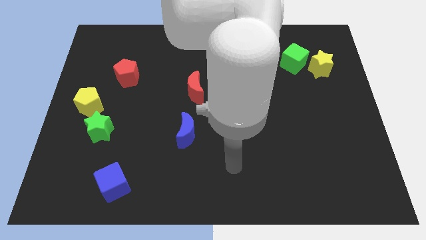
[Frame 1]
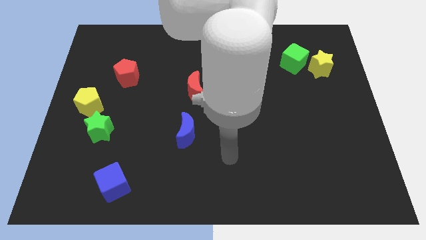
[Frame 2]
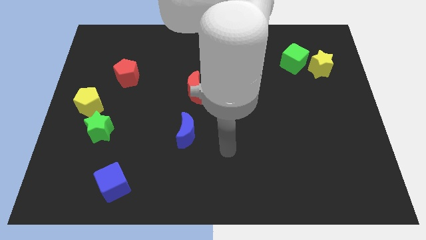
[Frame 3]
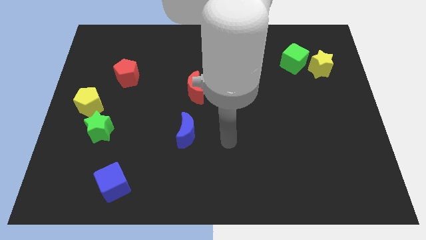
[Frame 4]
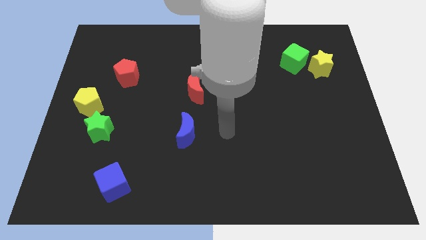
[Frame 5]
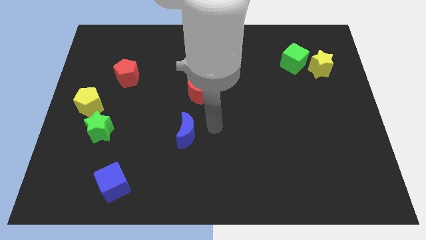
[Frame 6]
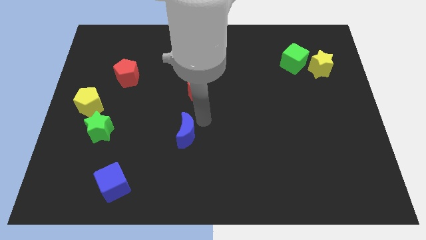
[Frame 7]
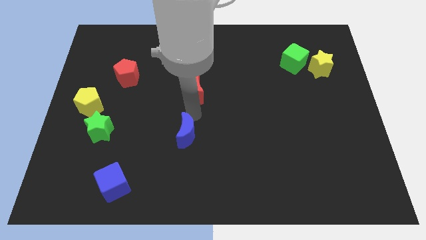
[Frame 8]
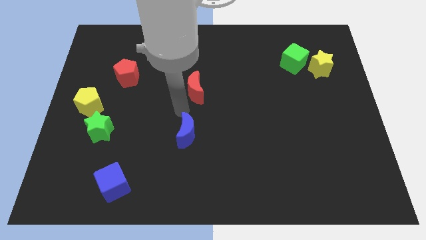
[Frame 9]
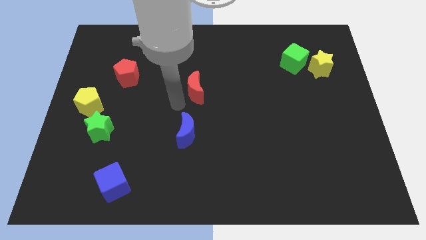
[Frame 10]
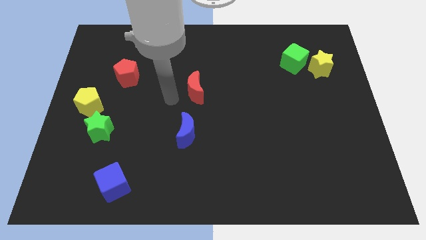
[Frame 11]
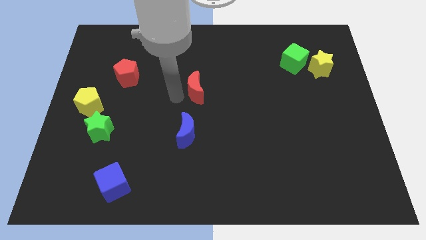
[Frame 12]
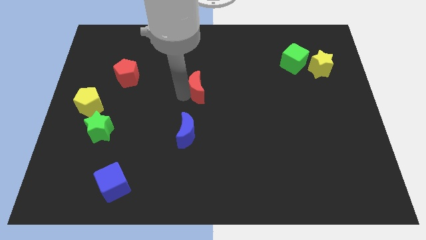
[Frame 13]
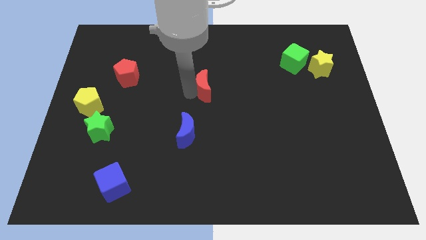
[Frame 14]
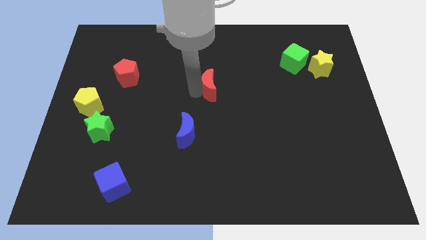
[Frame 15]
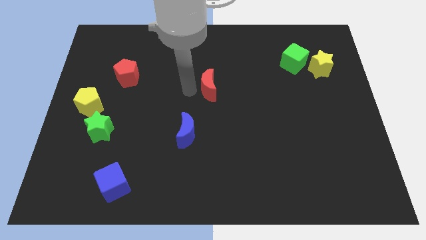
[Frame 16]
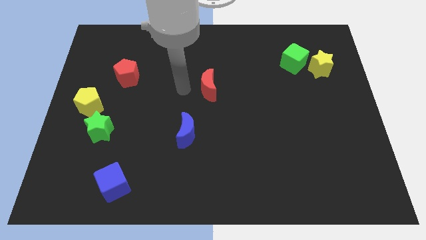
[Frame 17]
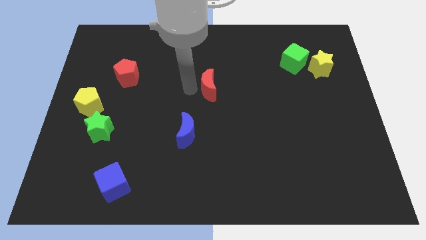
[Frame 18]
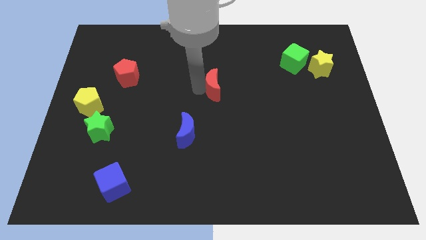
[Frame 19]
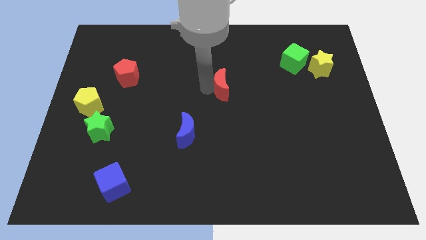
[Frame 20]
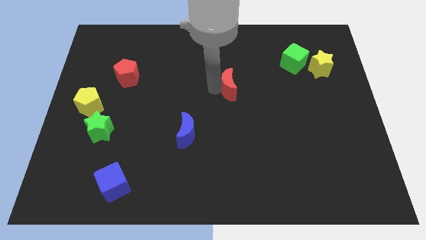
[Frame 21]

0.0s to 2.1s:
slightly push the red moon right

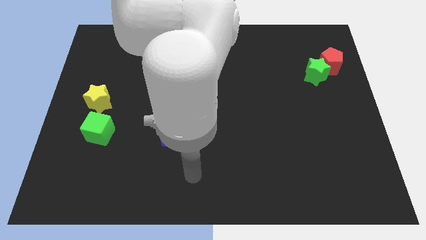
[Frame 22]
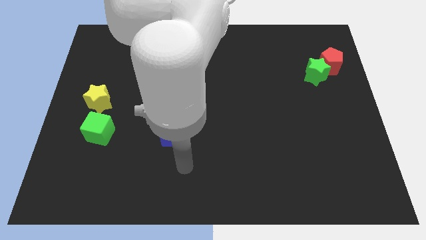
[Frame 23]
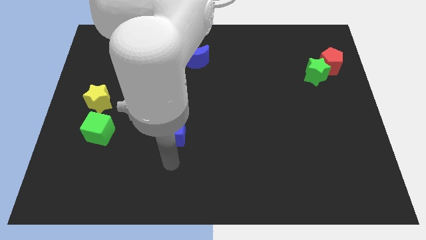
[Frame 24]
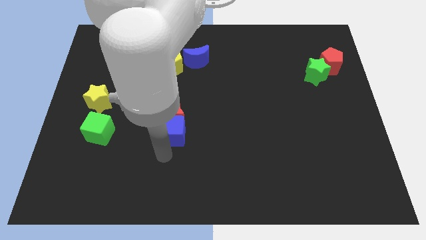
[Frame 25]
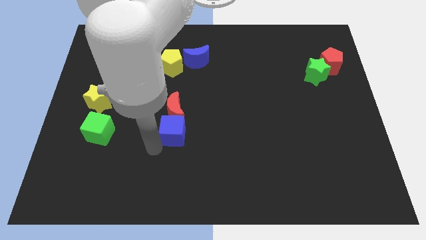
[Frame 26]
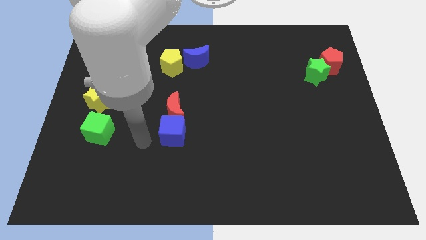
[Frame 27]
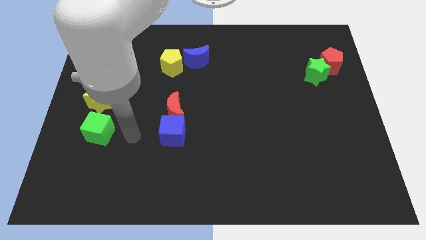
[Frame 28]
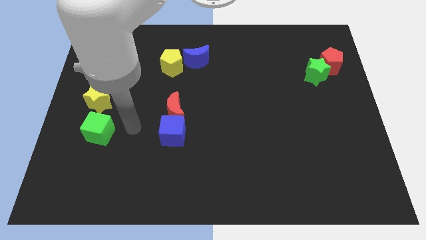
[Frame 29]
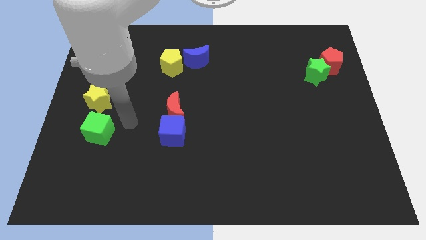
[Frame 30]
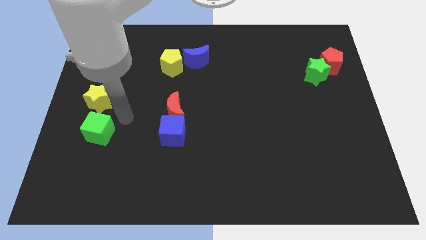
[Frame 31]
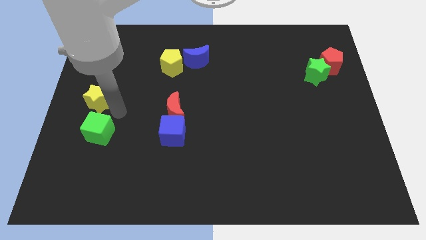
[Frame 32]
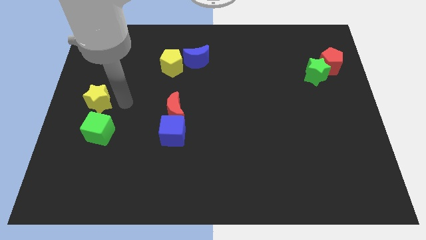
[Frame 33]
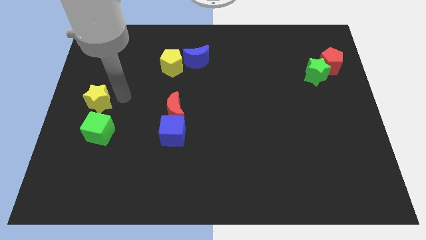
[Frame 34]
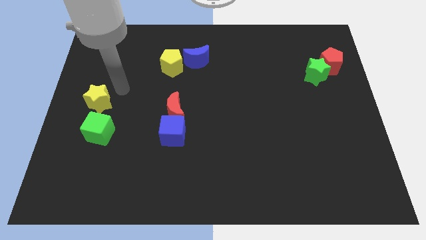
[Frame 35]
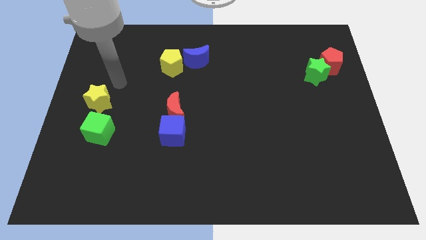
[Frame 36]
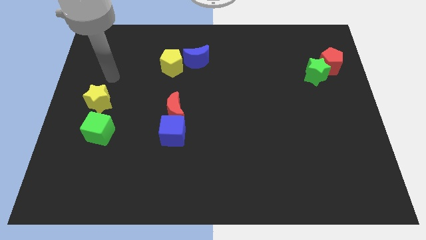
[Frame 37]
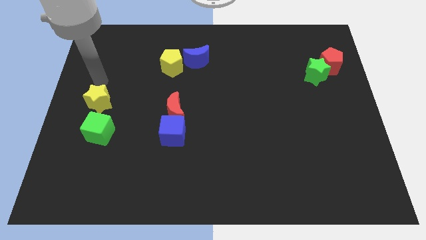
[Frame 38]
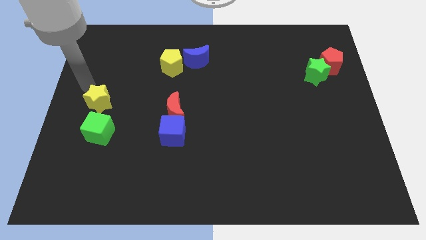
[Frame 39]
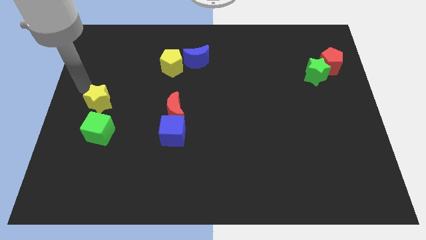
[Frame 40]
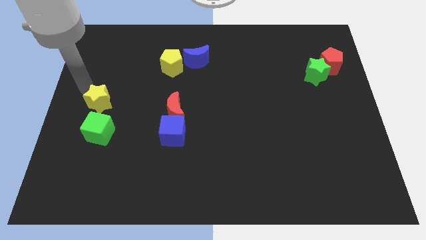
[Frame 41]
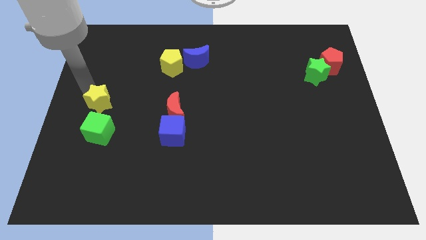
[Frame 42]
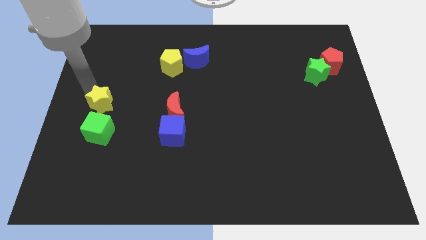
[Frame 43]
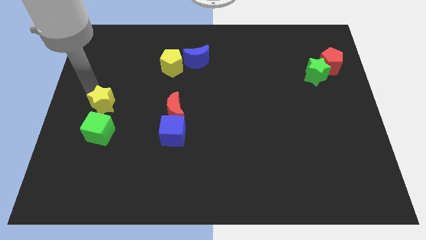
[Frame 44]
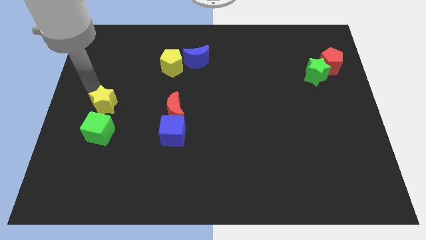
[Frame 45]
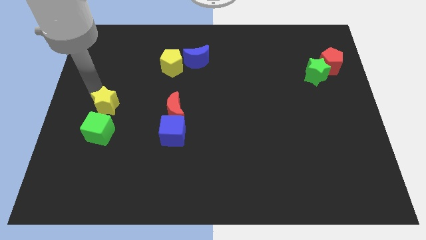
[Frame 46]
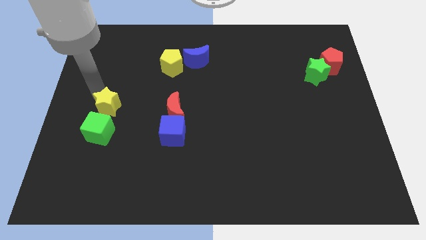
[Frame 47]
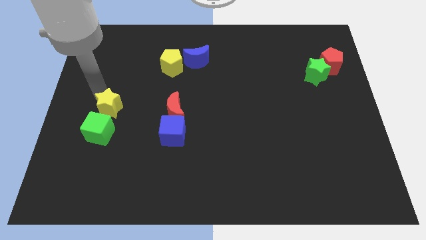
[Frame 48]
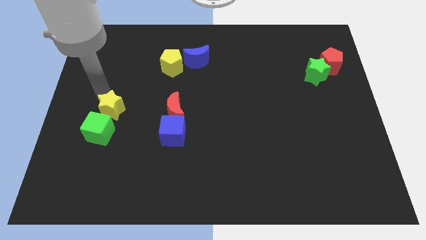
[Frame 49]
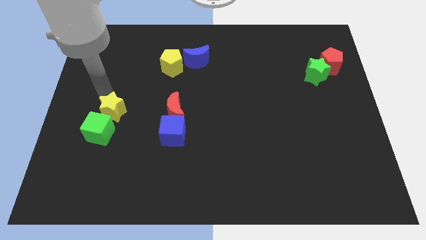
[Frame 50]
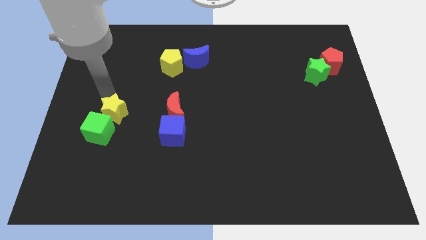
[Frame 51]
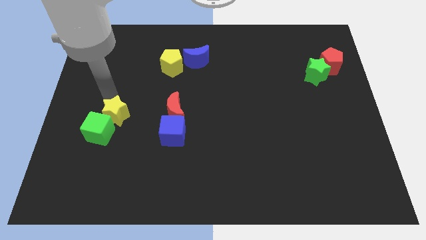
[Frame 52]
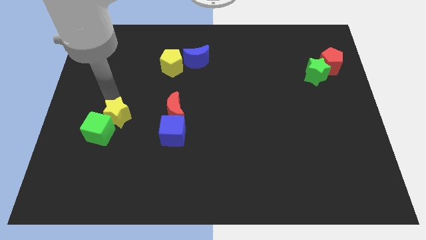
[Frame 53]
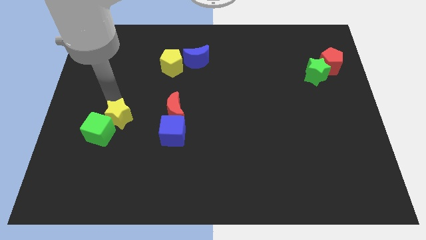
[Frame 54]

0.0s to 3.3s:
slide the yellow star diagonally down and to the right slightly

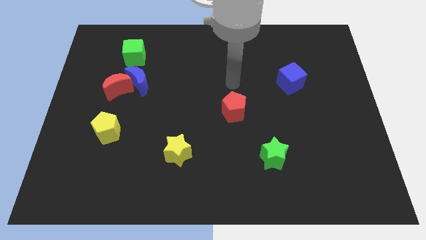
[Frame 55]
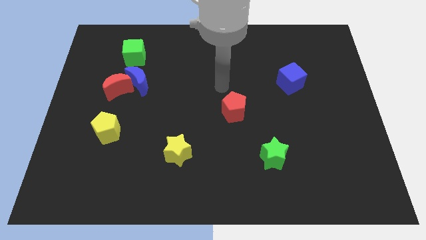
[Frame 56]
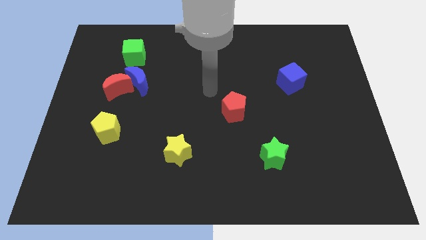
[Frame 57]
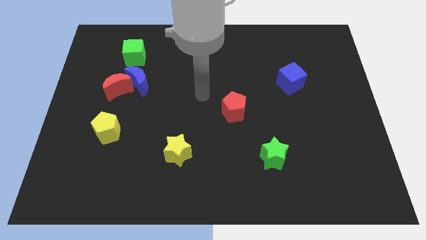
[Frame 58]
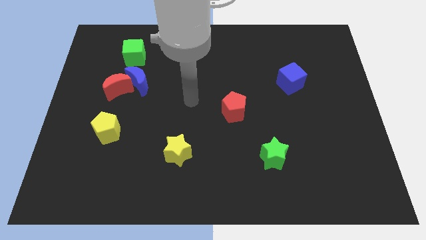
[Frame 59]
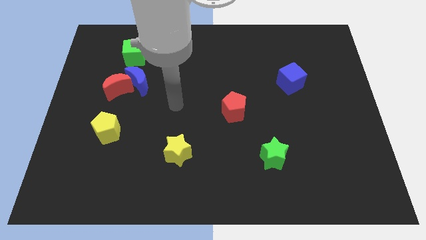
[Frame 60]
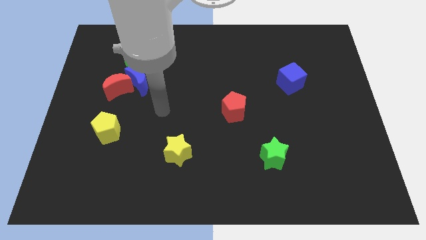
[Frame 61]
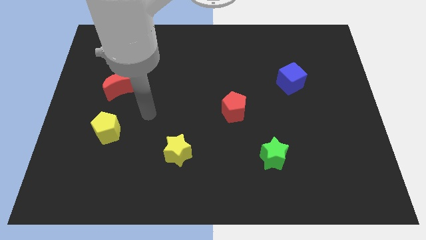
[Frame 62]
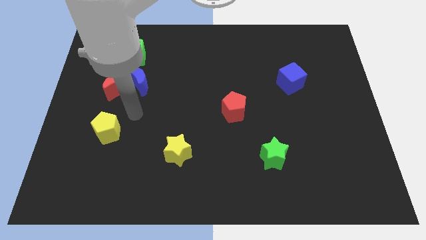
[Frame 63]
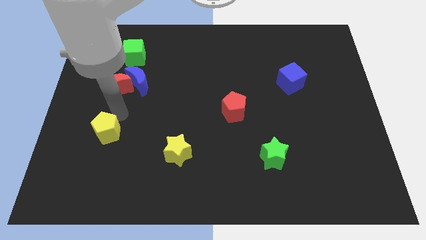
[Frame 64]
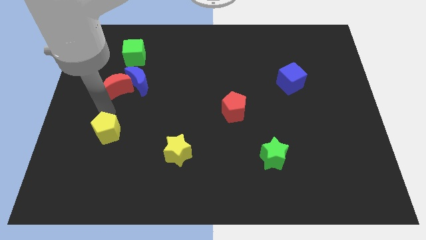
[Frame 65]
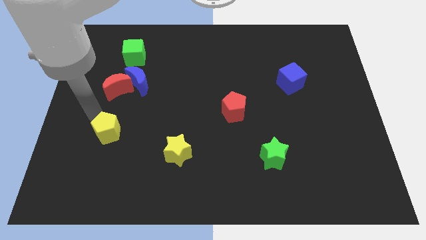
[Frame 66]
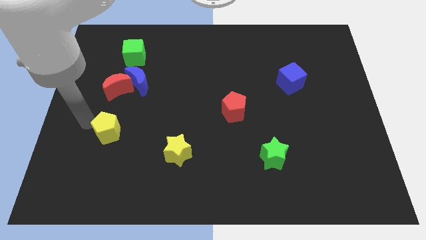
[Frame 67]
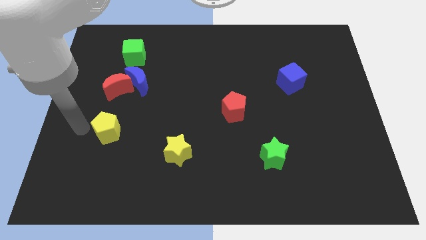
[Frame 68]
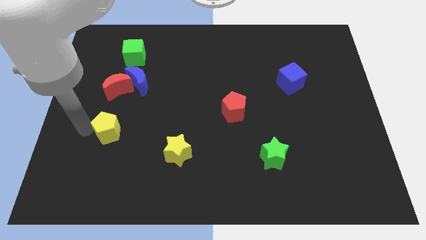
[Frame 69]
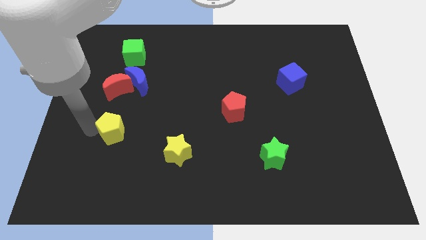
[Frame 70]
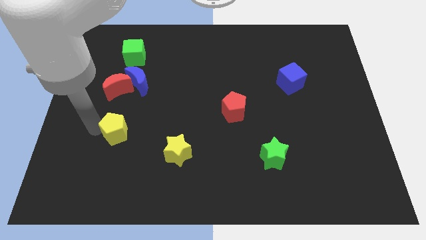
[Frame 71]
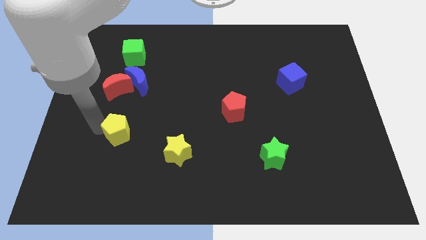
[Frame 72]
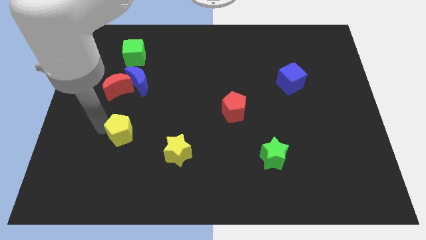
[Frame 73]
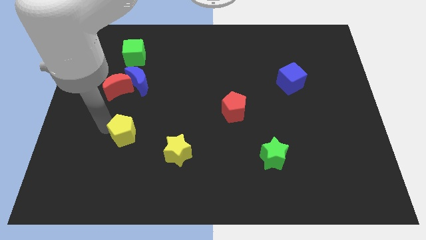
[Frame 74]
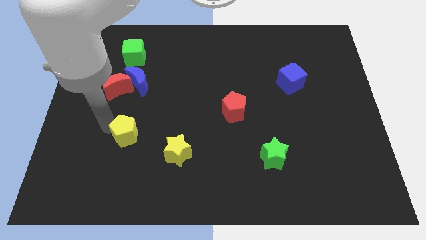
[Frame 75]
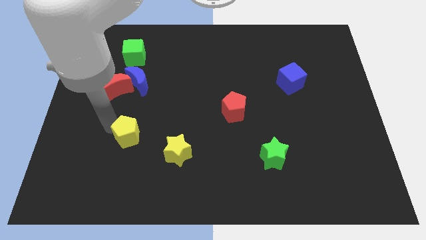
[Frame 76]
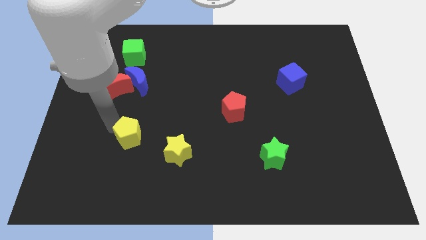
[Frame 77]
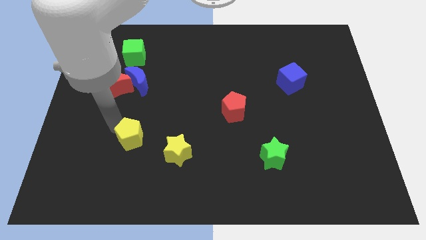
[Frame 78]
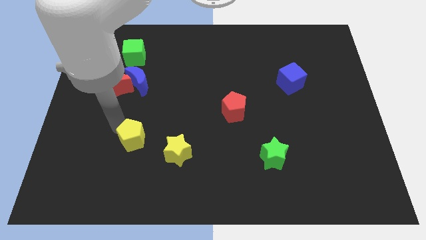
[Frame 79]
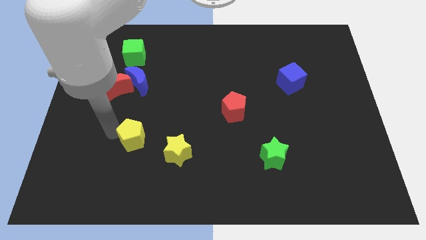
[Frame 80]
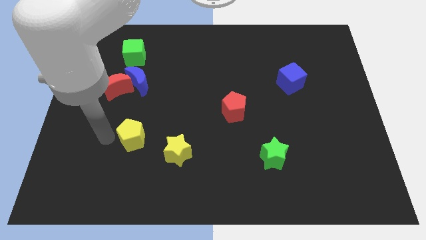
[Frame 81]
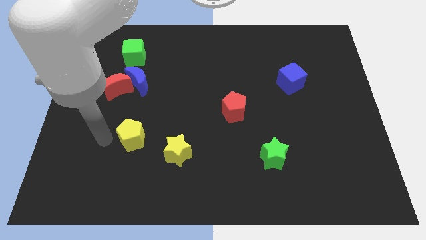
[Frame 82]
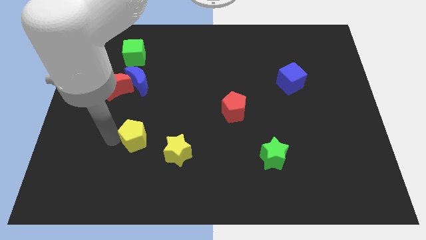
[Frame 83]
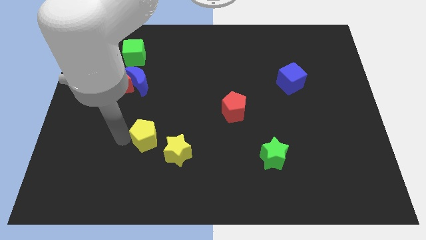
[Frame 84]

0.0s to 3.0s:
move the yellow pentagon to the right somewhat
